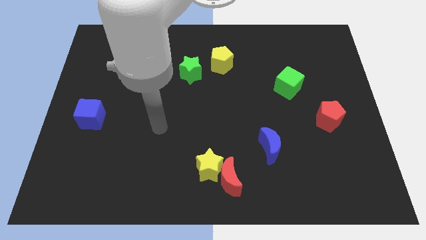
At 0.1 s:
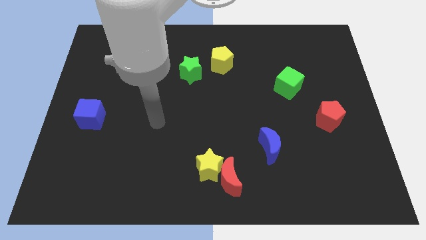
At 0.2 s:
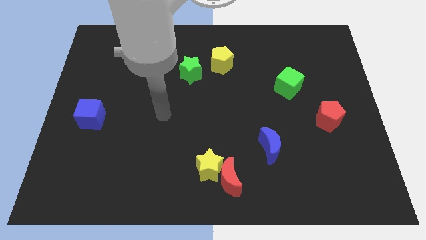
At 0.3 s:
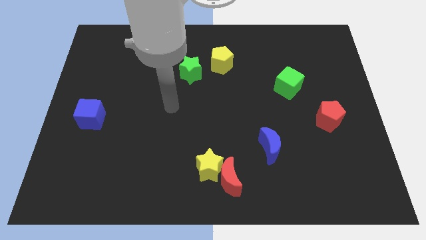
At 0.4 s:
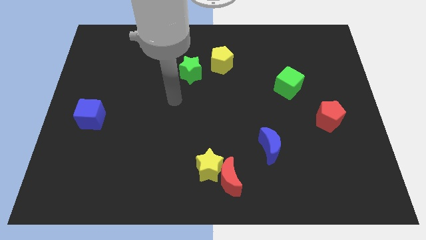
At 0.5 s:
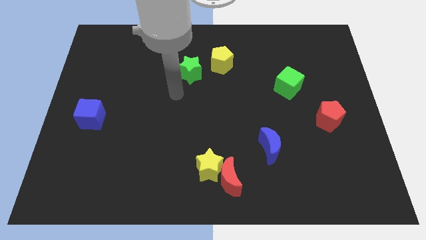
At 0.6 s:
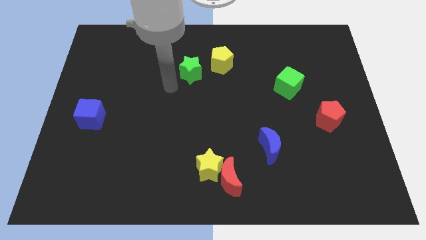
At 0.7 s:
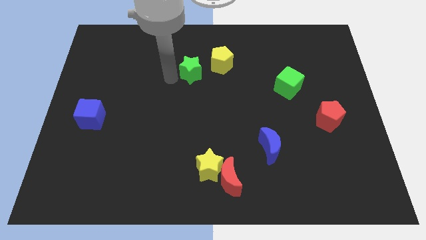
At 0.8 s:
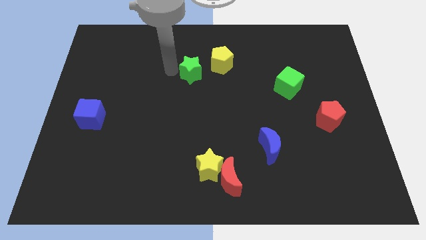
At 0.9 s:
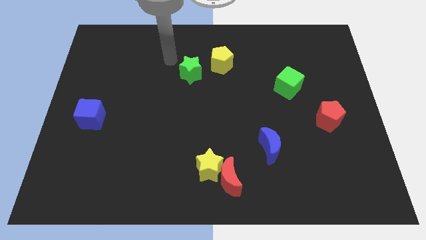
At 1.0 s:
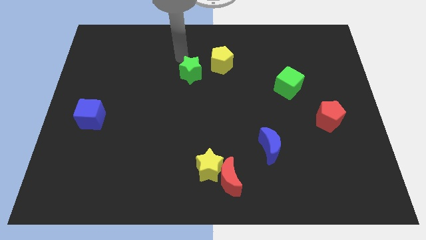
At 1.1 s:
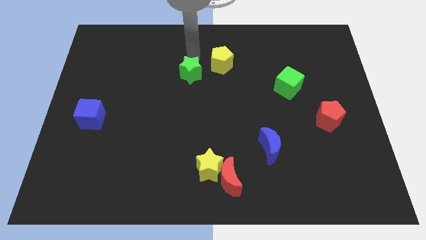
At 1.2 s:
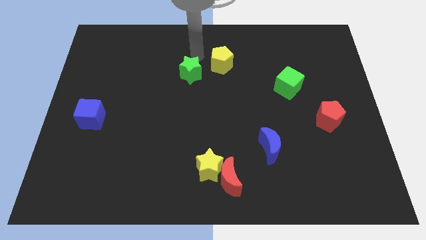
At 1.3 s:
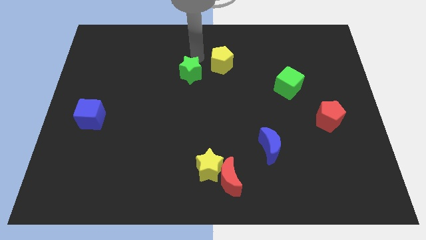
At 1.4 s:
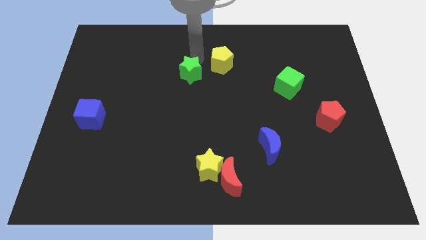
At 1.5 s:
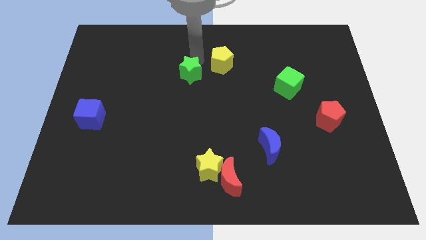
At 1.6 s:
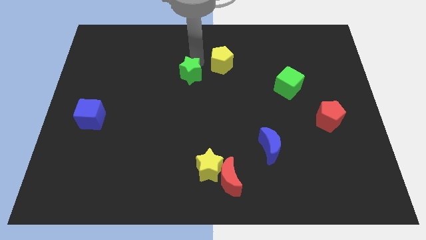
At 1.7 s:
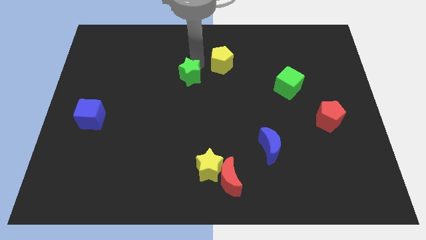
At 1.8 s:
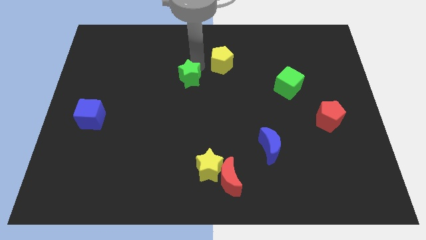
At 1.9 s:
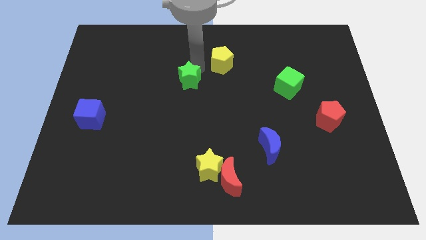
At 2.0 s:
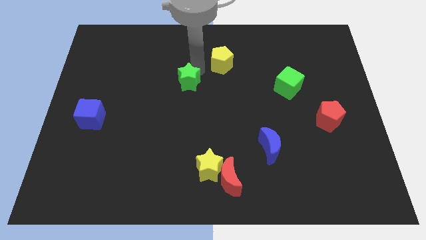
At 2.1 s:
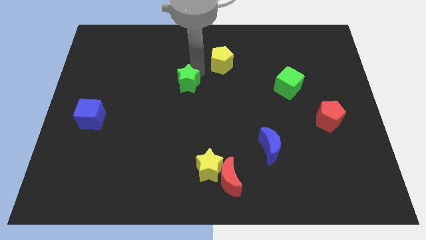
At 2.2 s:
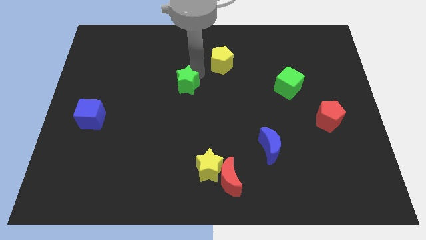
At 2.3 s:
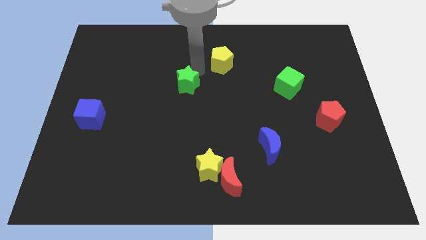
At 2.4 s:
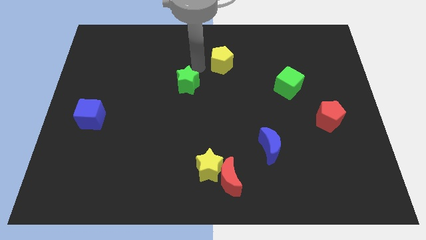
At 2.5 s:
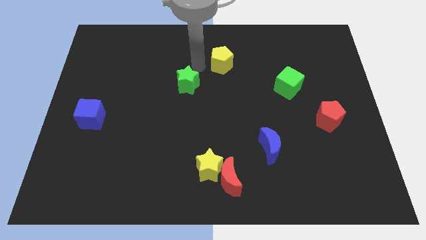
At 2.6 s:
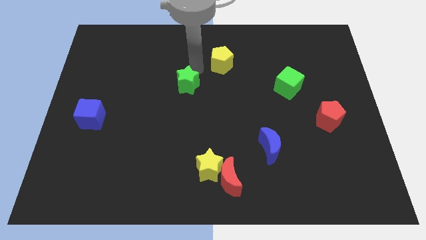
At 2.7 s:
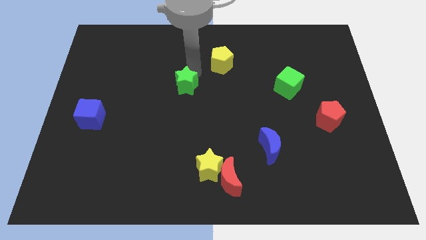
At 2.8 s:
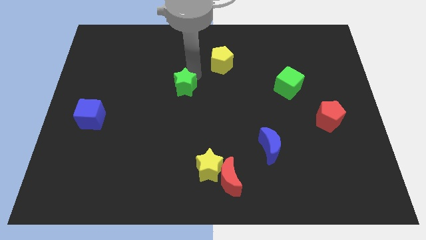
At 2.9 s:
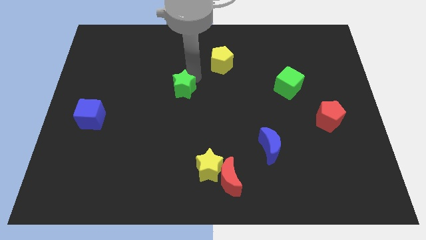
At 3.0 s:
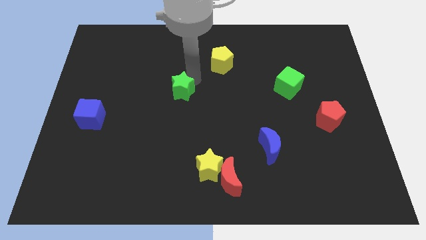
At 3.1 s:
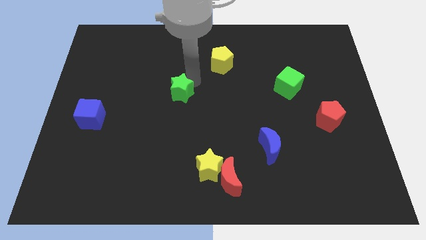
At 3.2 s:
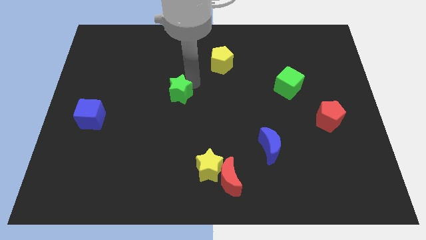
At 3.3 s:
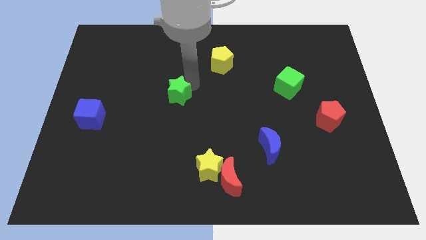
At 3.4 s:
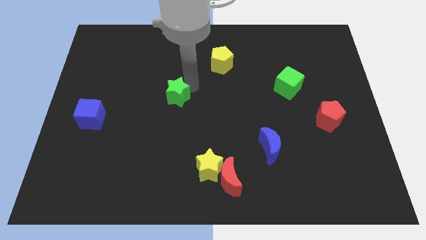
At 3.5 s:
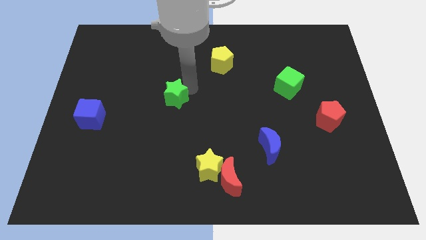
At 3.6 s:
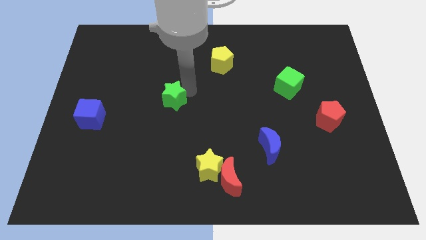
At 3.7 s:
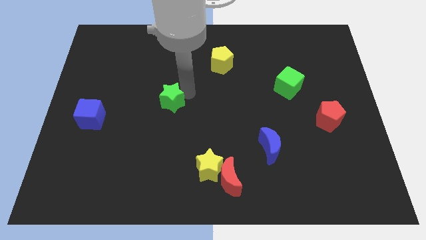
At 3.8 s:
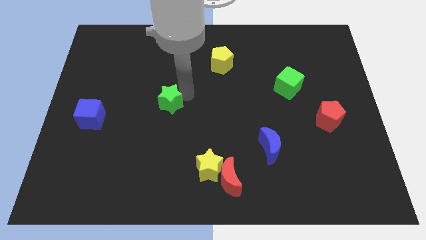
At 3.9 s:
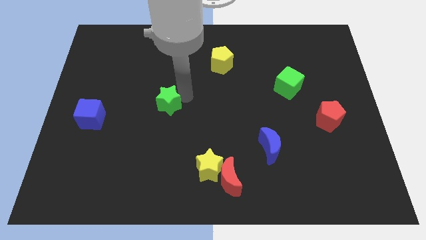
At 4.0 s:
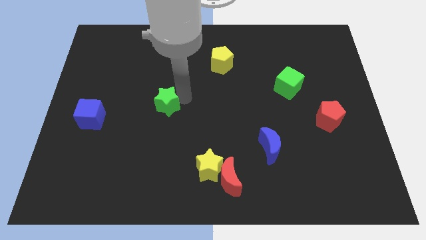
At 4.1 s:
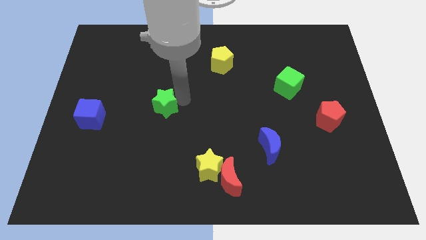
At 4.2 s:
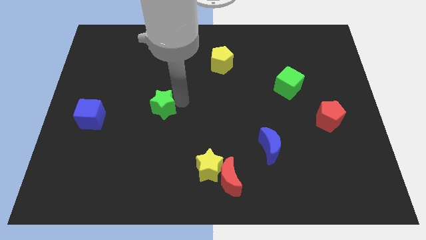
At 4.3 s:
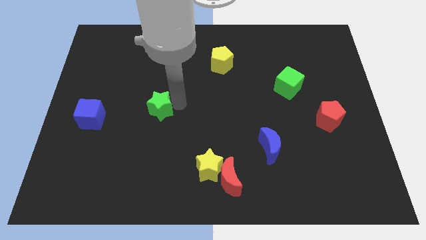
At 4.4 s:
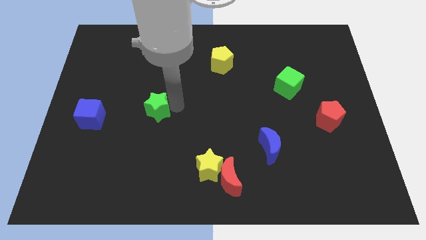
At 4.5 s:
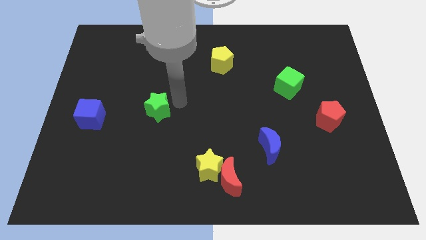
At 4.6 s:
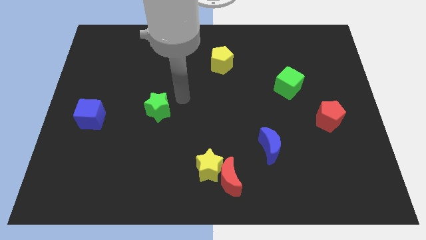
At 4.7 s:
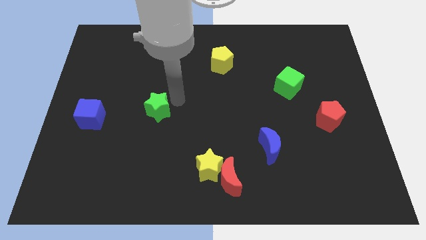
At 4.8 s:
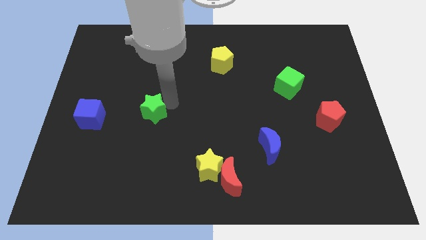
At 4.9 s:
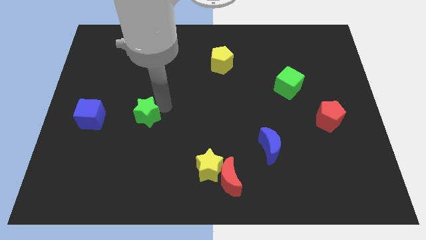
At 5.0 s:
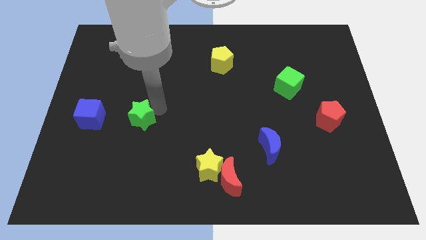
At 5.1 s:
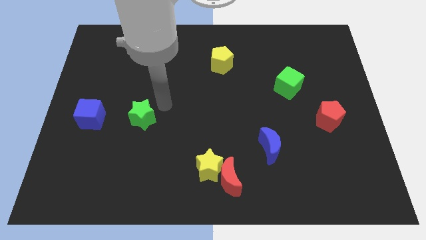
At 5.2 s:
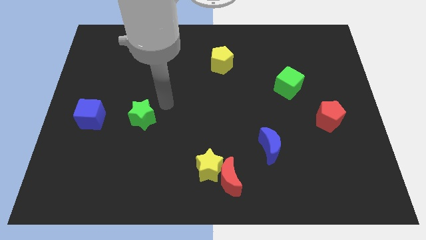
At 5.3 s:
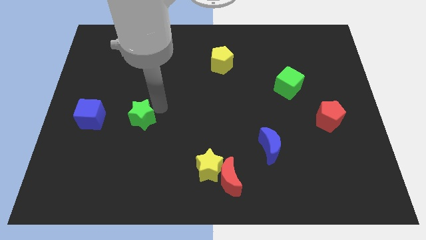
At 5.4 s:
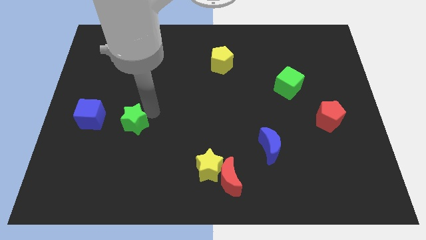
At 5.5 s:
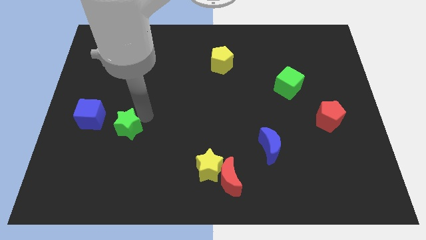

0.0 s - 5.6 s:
slide the green star diagonally down and to the right of the blue cube

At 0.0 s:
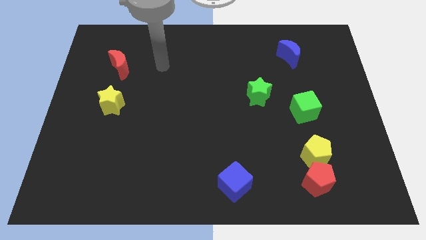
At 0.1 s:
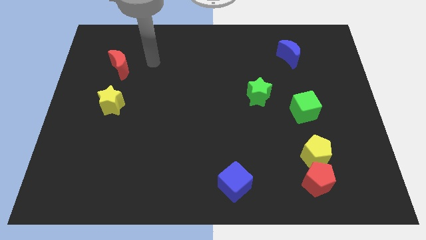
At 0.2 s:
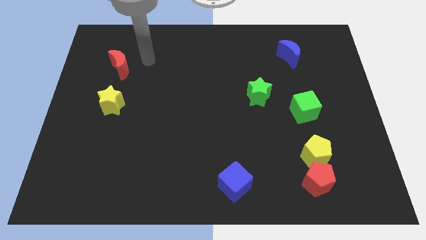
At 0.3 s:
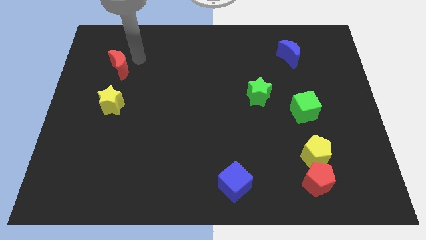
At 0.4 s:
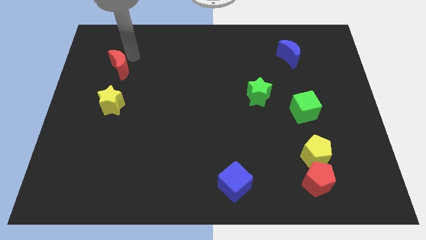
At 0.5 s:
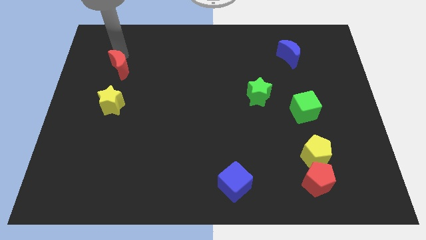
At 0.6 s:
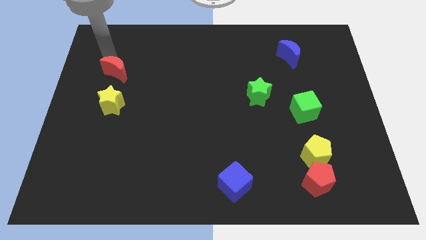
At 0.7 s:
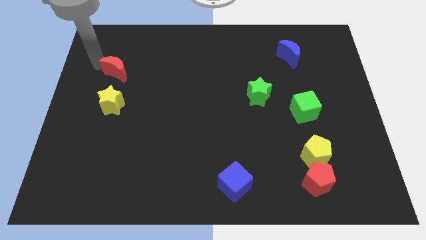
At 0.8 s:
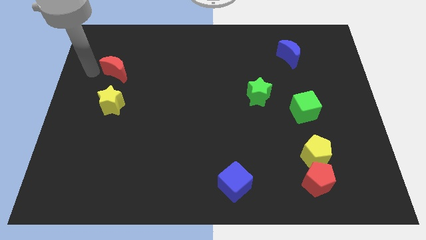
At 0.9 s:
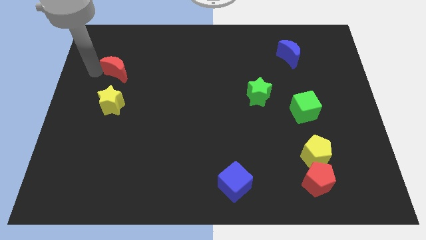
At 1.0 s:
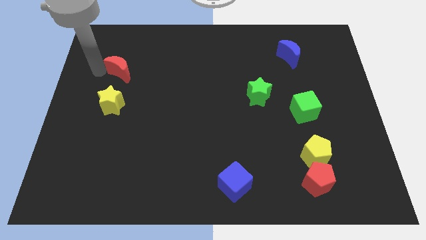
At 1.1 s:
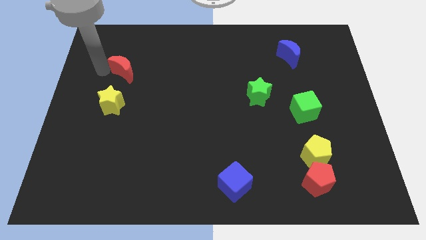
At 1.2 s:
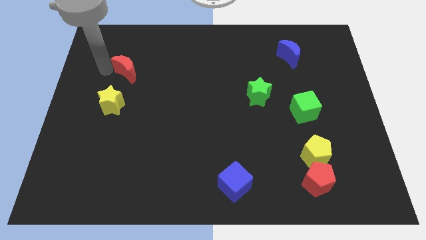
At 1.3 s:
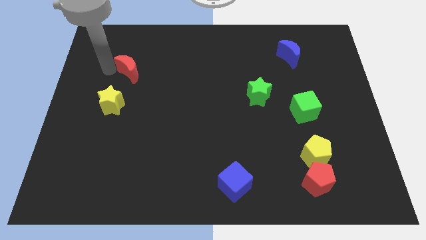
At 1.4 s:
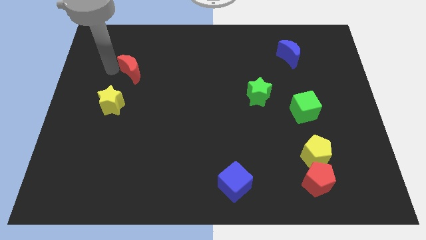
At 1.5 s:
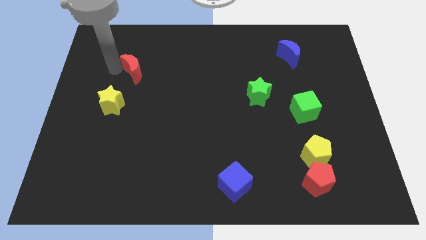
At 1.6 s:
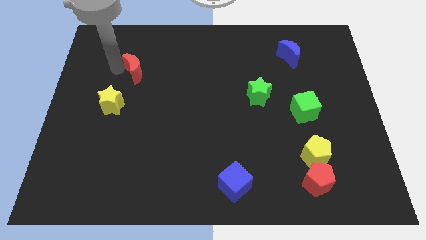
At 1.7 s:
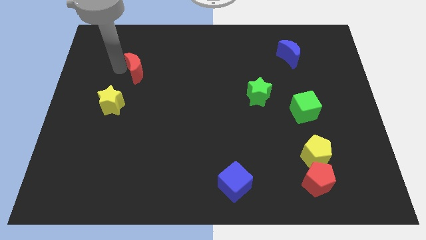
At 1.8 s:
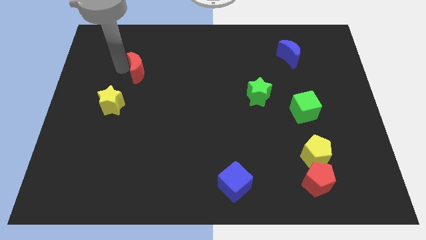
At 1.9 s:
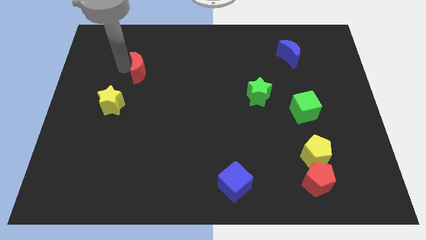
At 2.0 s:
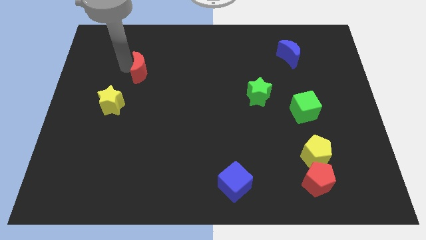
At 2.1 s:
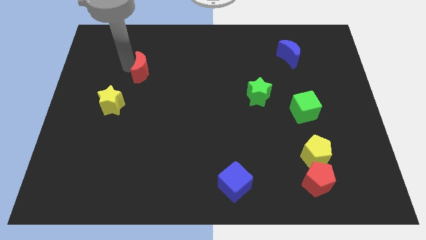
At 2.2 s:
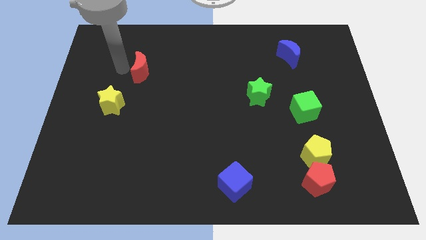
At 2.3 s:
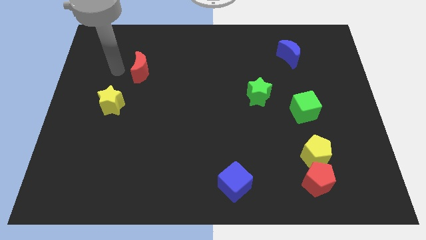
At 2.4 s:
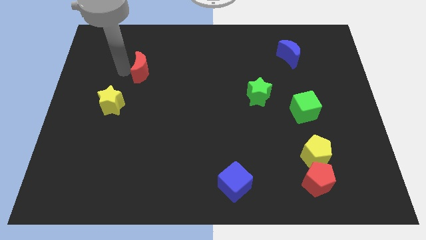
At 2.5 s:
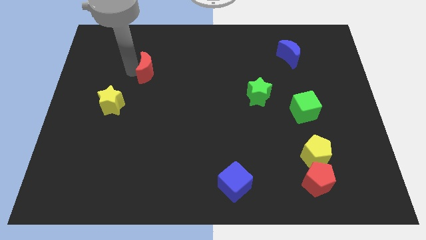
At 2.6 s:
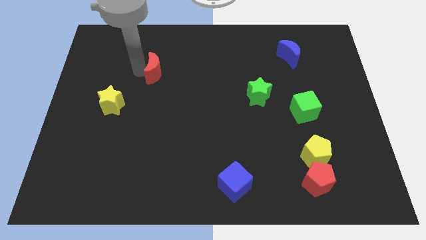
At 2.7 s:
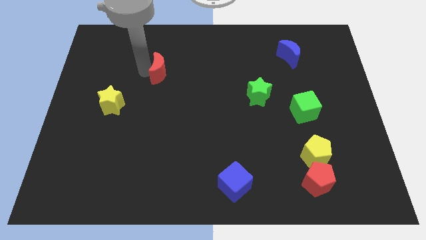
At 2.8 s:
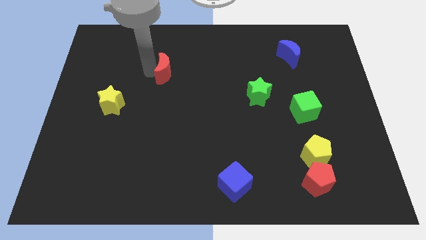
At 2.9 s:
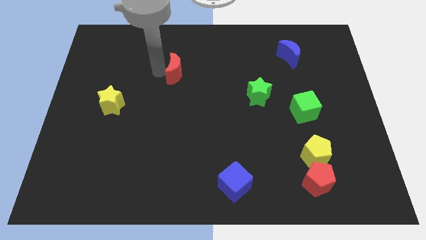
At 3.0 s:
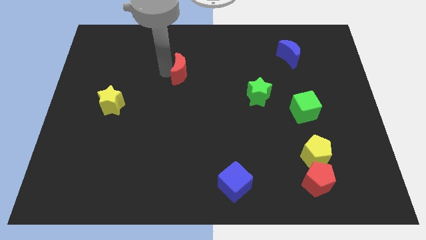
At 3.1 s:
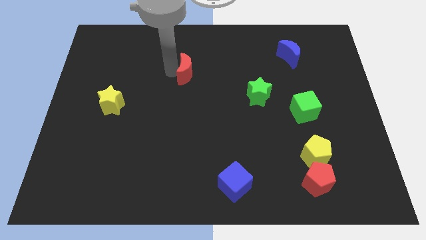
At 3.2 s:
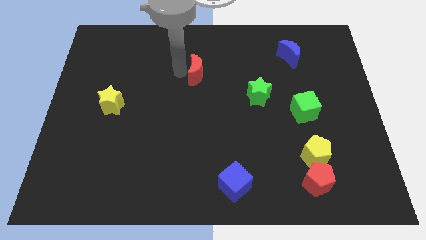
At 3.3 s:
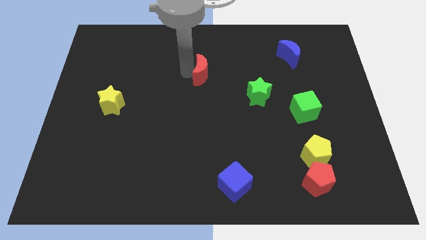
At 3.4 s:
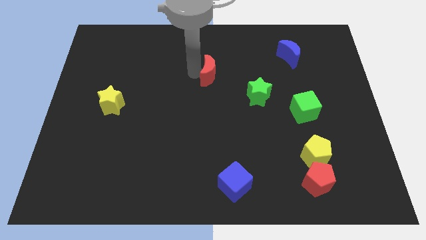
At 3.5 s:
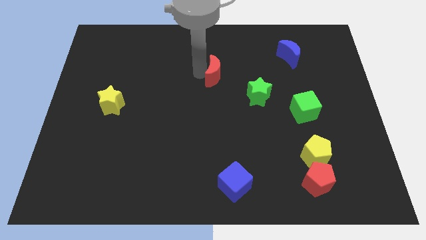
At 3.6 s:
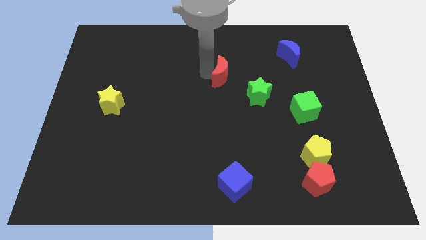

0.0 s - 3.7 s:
push the red moon to the top left of the green star
